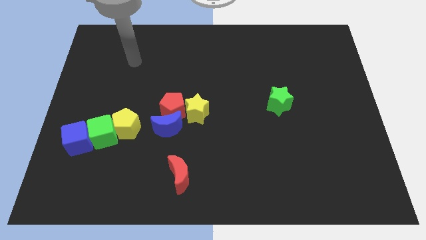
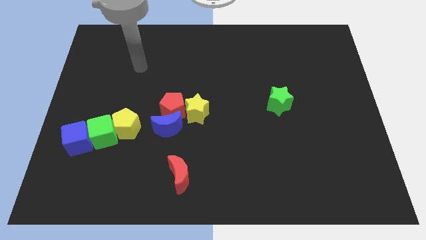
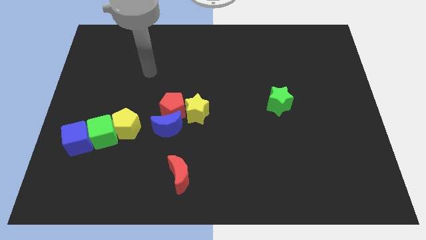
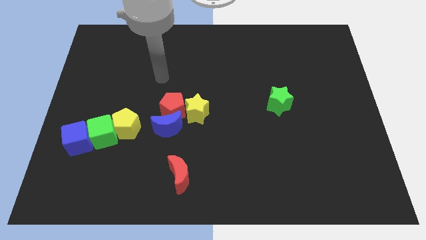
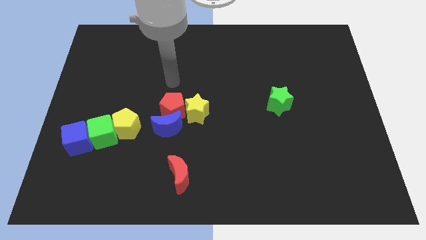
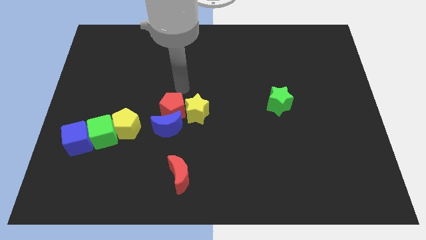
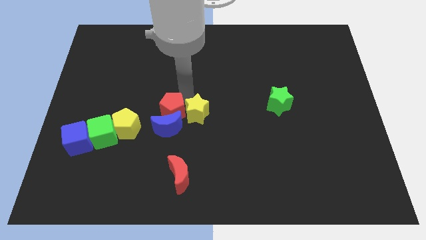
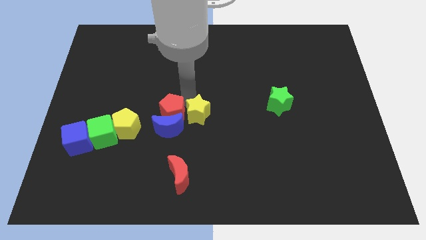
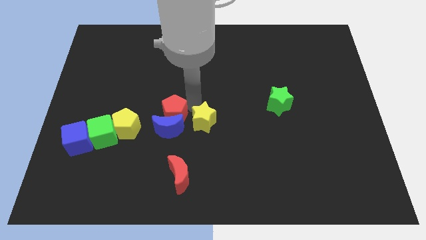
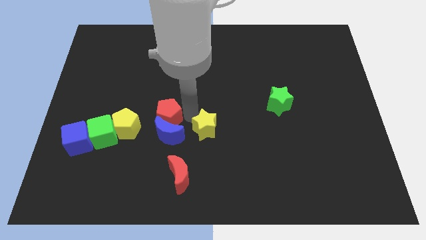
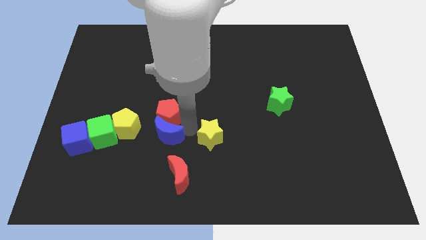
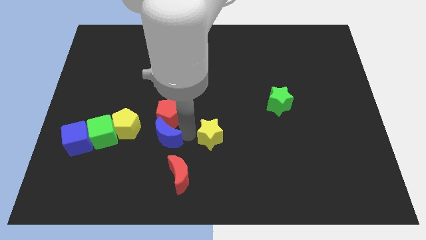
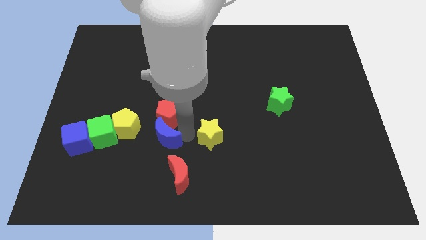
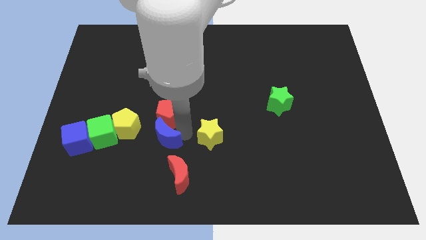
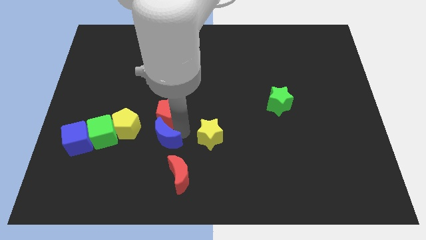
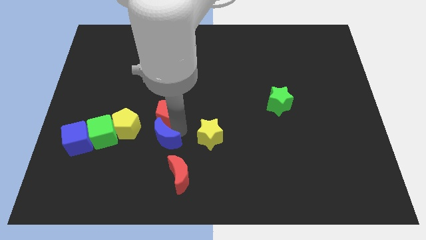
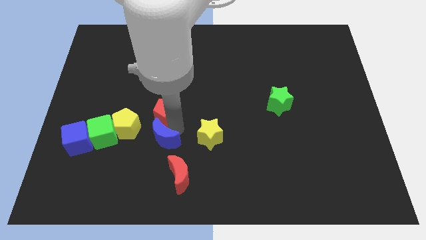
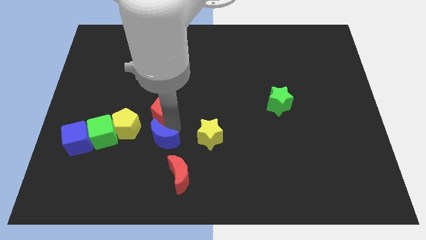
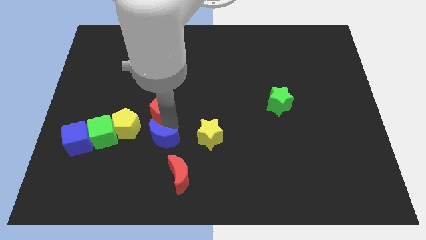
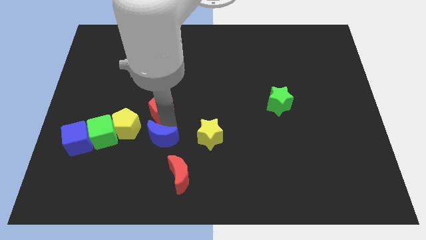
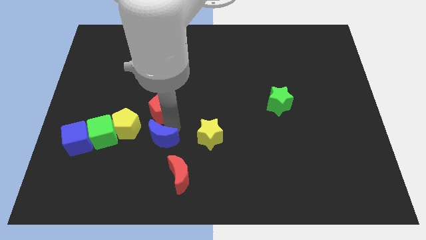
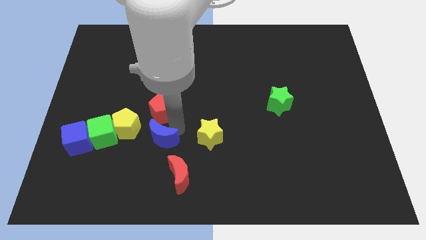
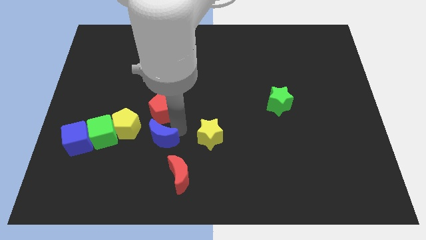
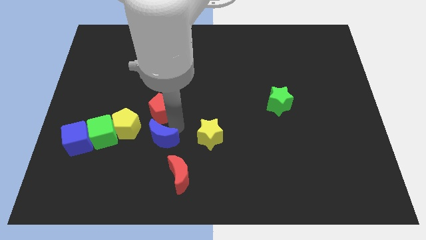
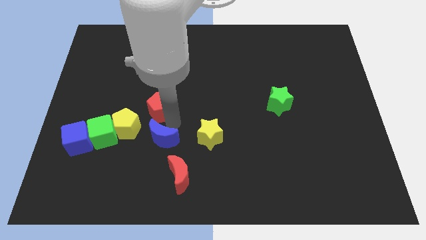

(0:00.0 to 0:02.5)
pull the red pentagon apart from the blue moon and yellow star

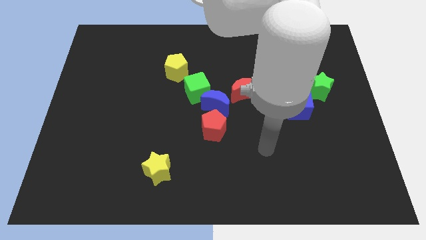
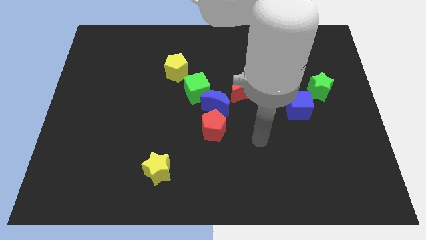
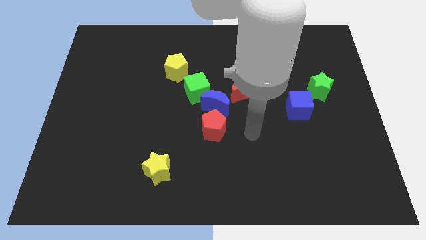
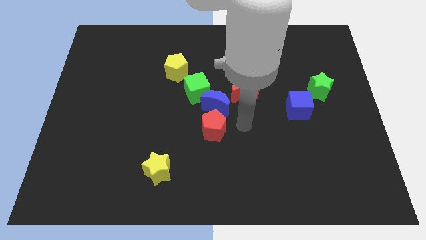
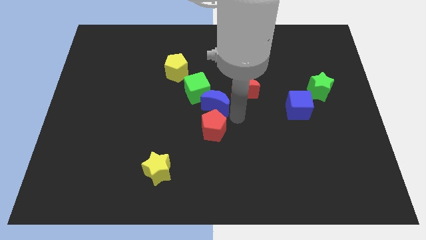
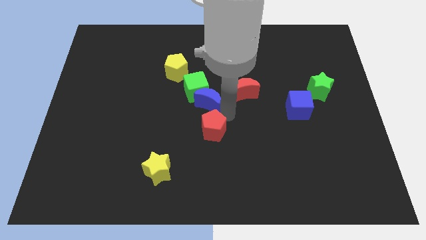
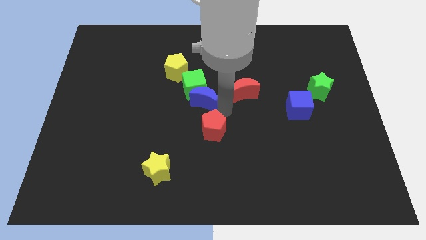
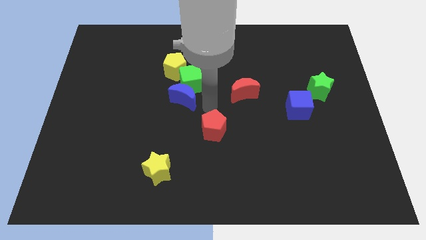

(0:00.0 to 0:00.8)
move the red pentagon away from the blue moon

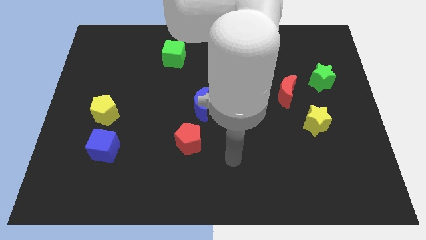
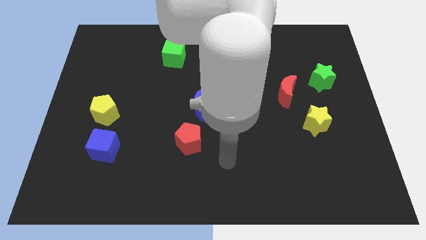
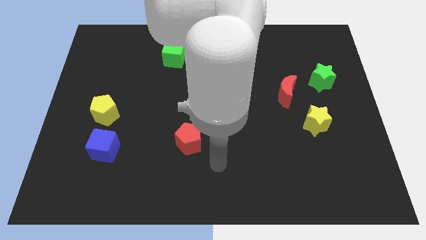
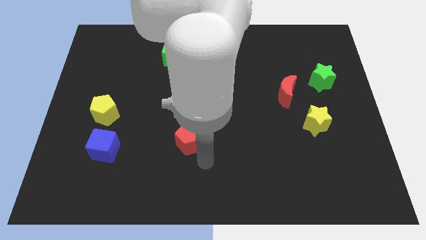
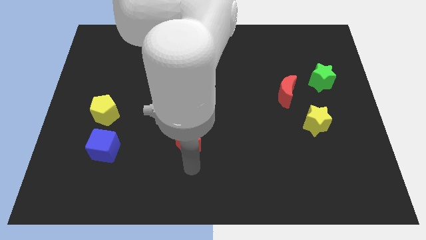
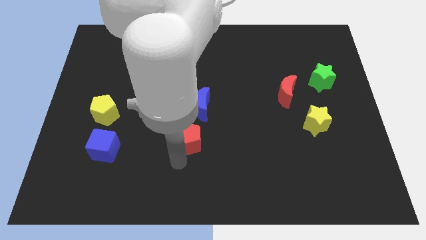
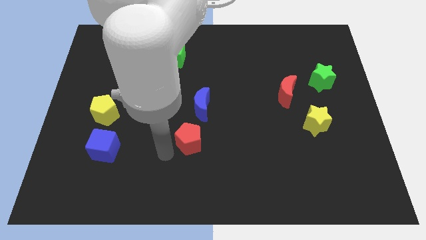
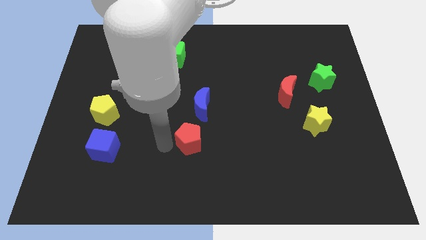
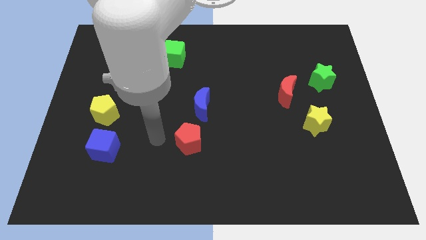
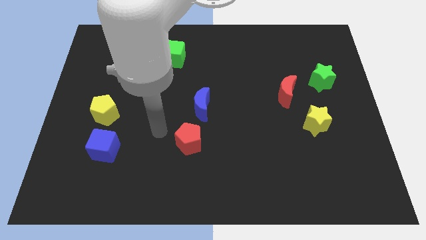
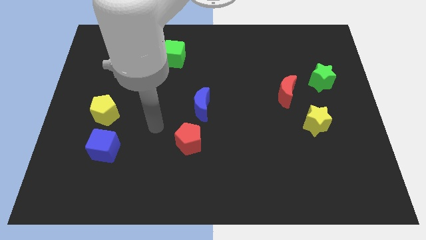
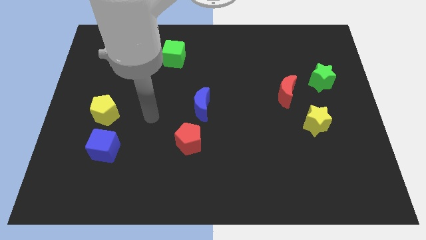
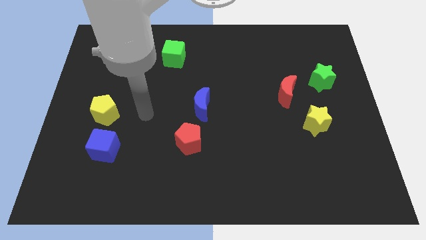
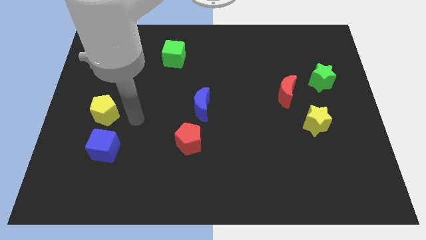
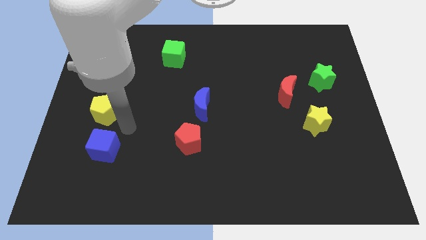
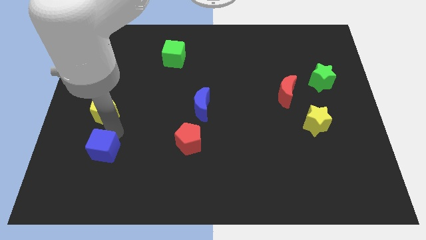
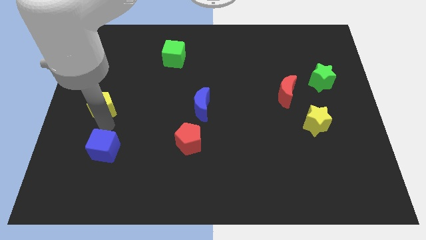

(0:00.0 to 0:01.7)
pull the blue cube apart from the yellow pentagon

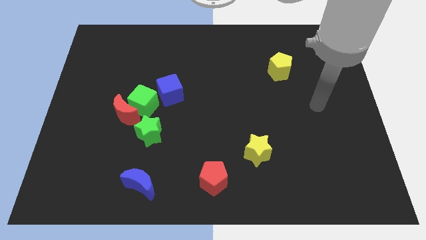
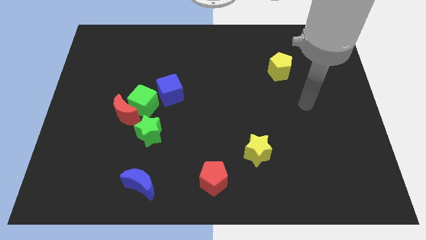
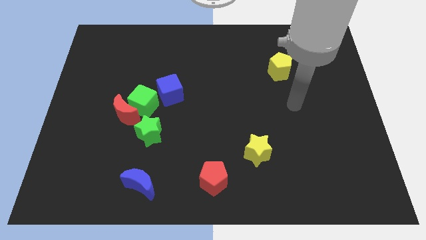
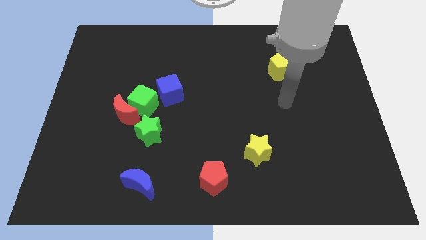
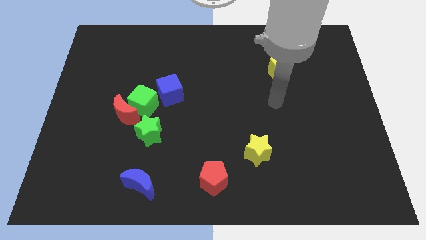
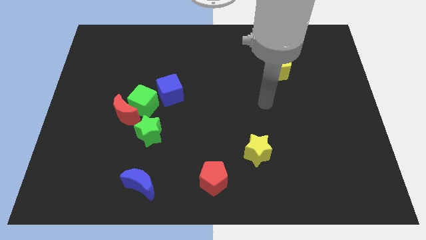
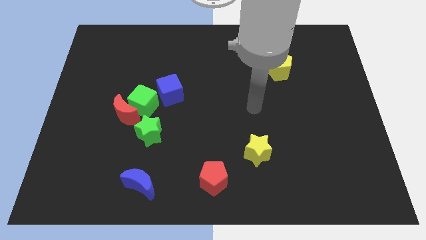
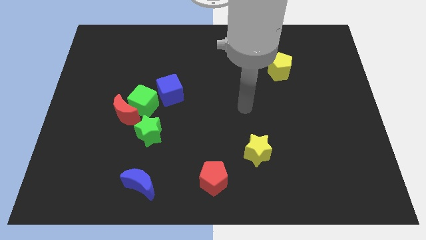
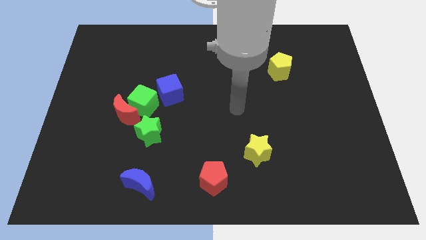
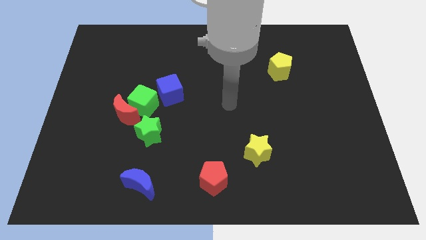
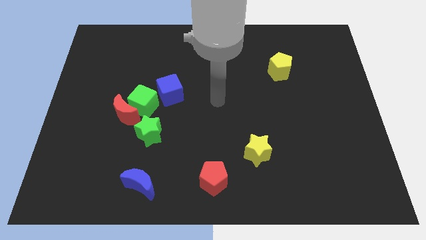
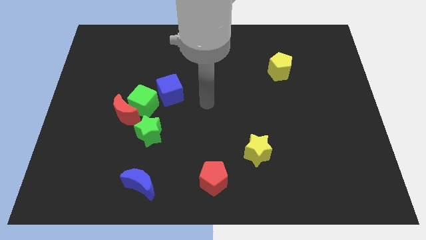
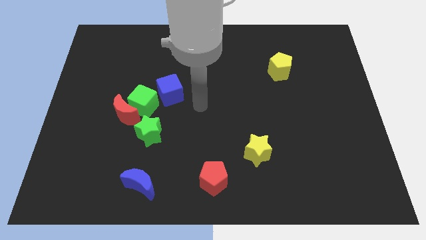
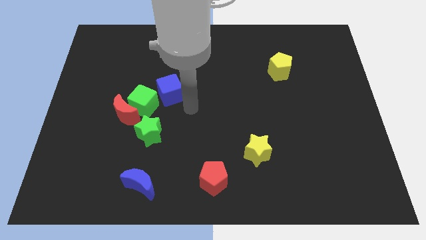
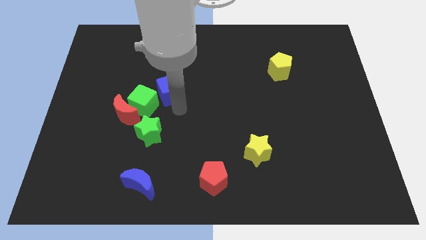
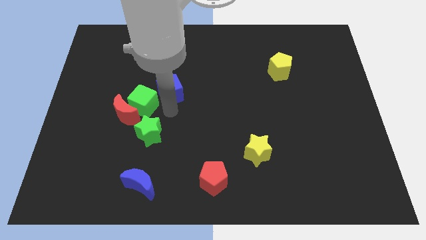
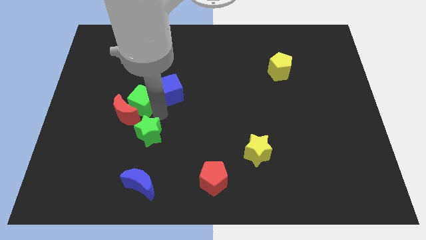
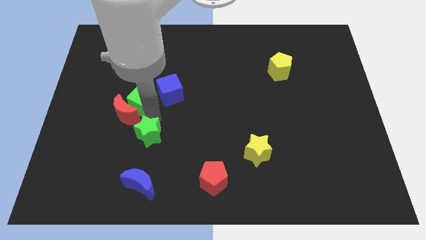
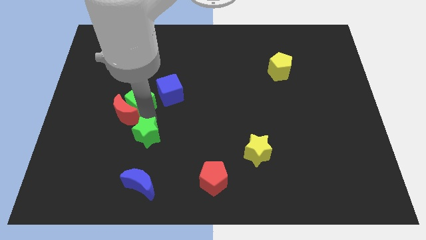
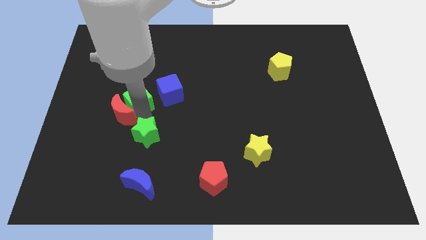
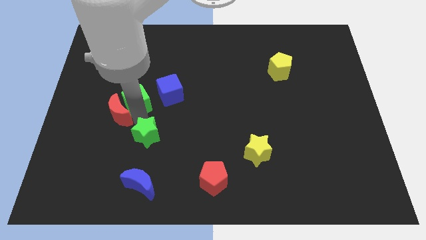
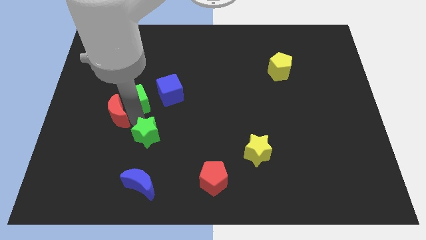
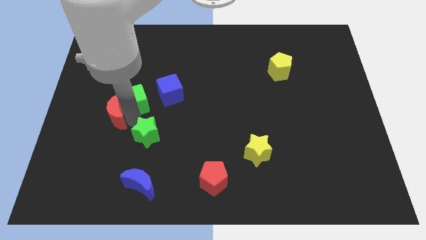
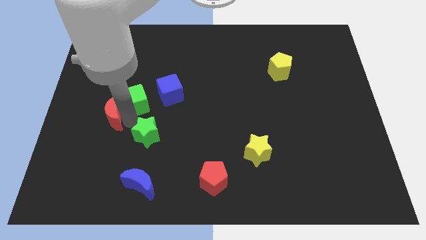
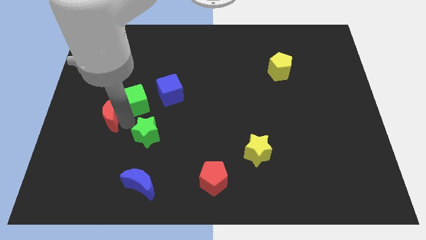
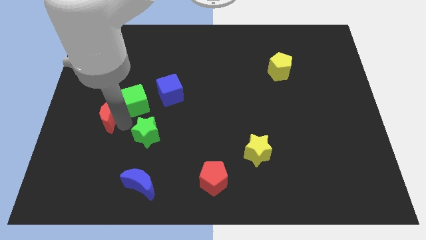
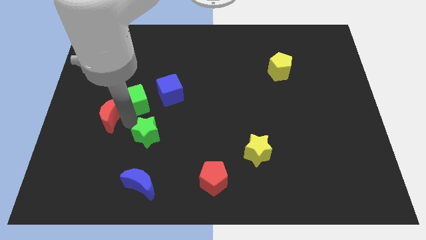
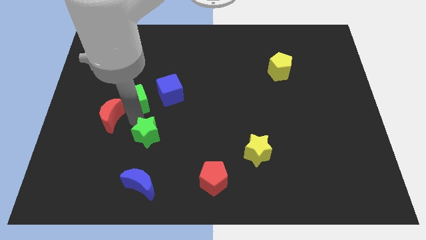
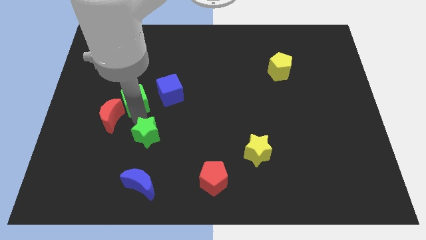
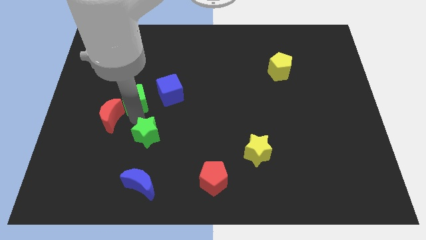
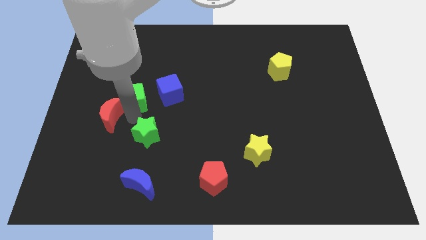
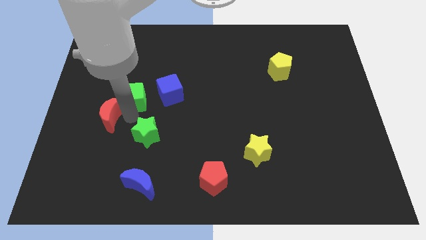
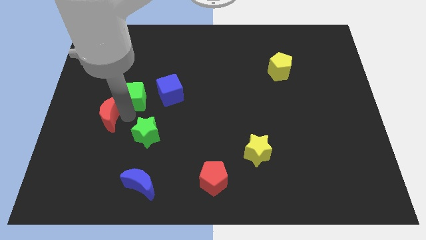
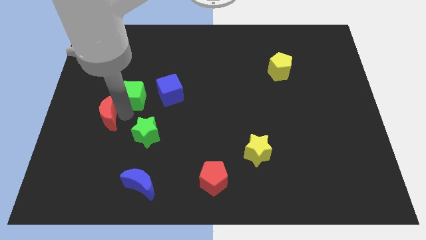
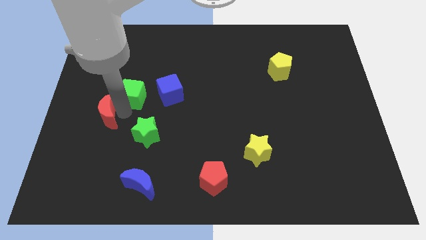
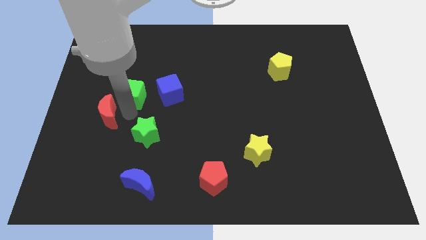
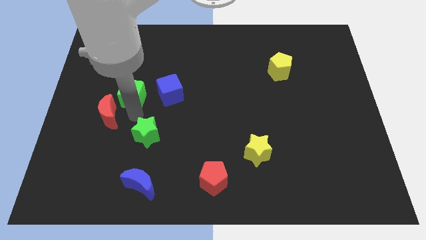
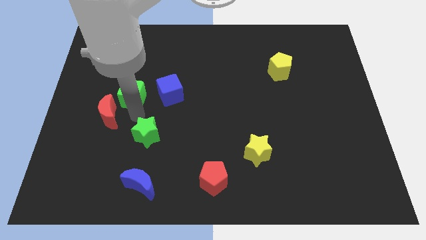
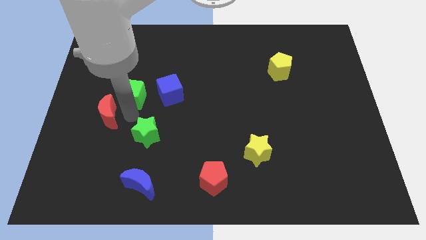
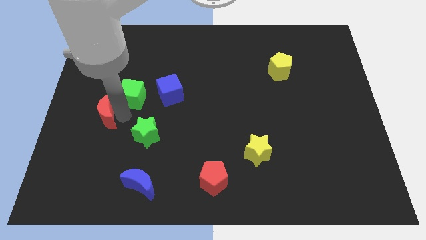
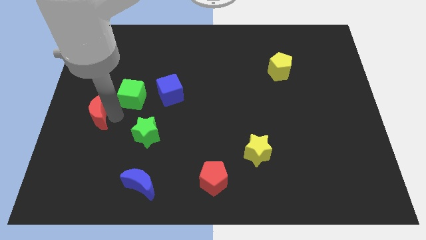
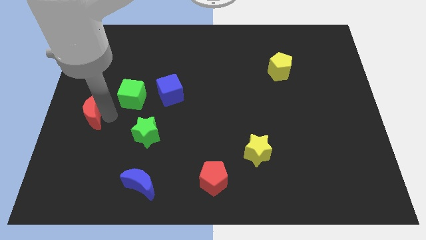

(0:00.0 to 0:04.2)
move the red moon away from the green cube and green star

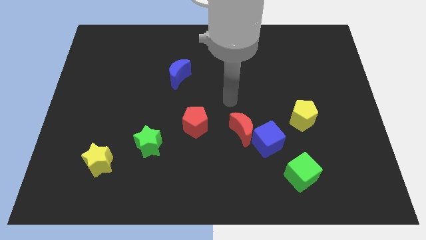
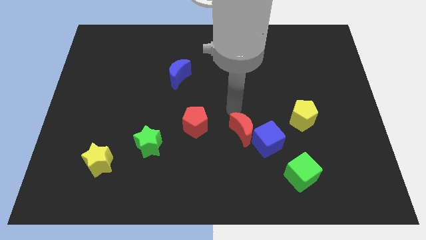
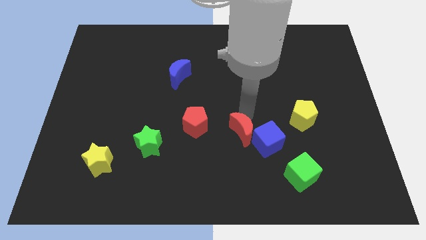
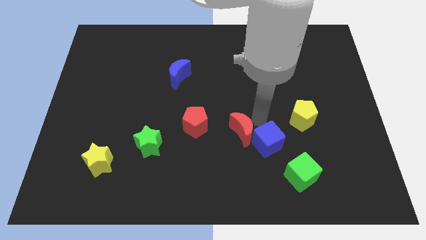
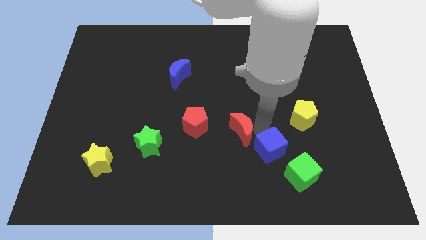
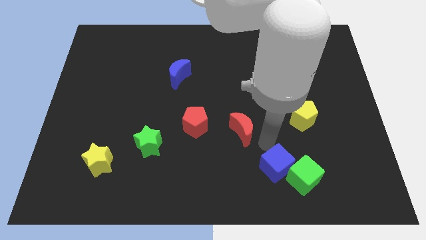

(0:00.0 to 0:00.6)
move the red moon away from the blue cube
